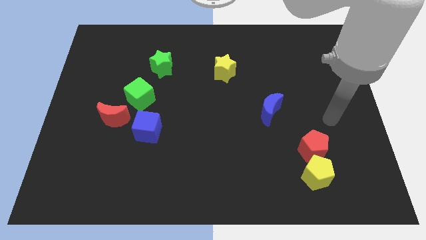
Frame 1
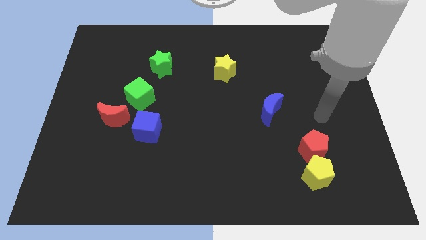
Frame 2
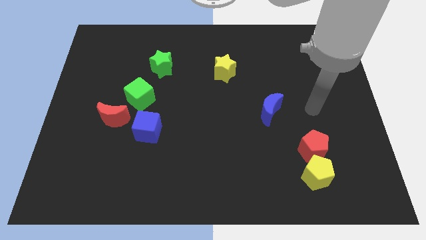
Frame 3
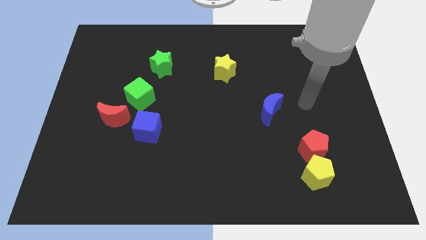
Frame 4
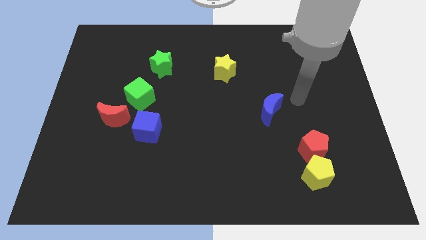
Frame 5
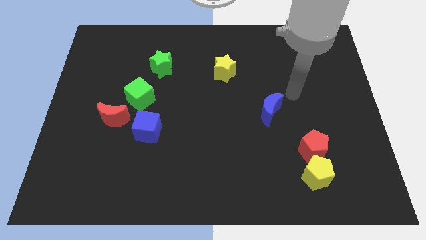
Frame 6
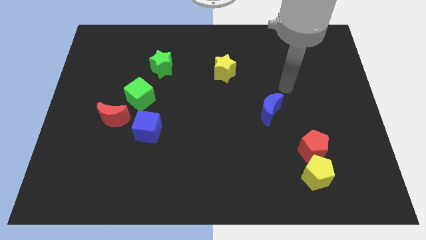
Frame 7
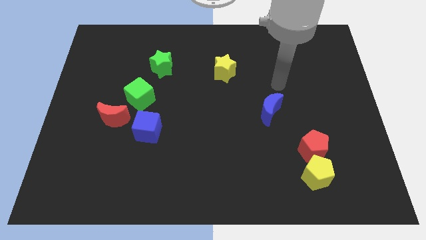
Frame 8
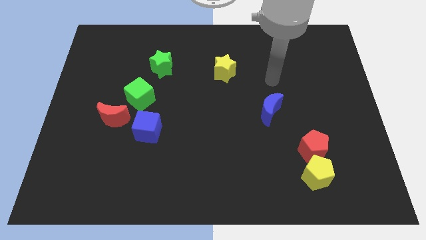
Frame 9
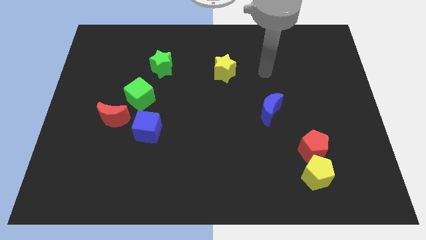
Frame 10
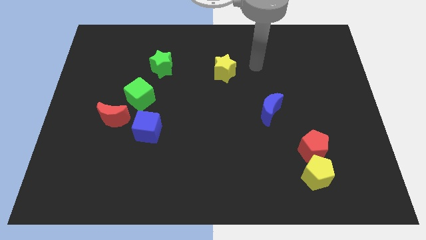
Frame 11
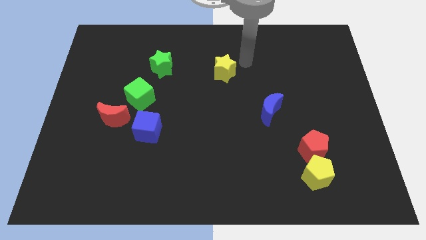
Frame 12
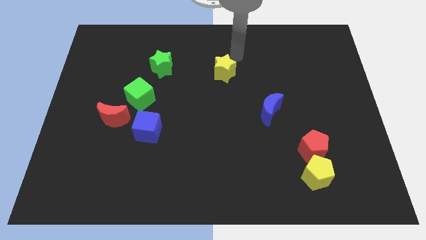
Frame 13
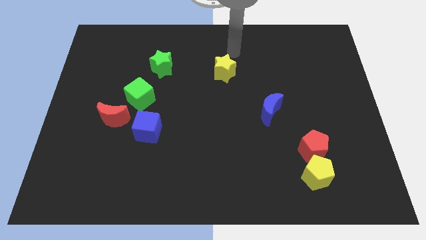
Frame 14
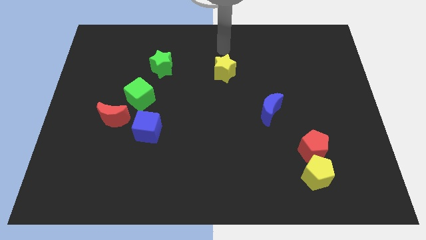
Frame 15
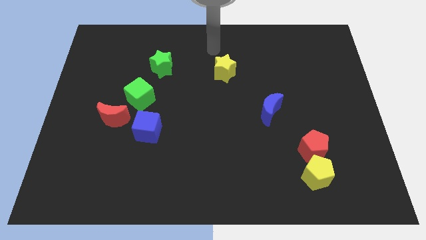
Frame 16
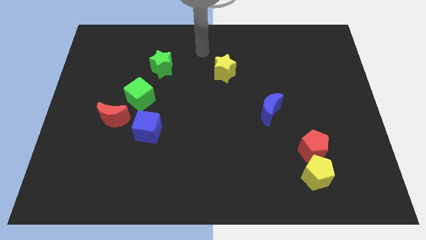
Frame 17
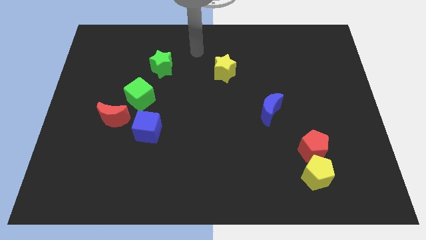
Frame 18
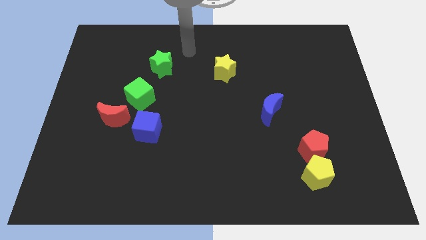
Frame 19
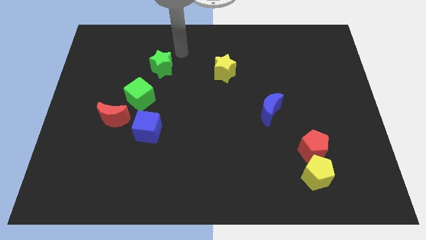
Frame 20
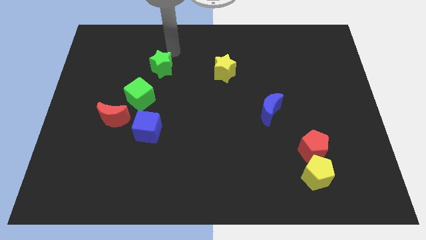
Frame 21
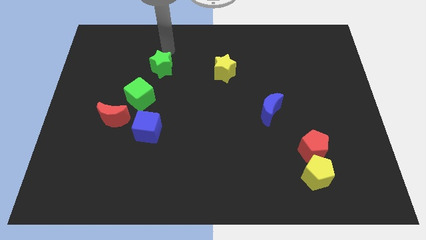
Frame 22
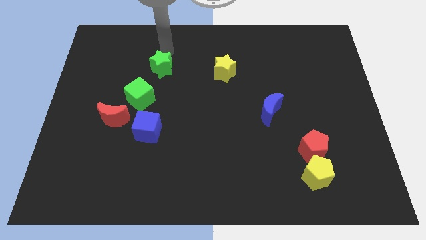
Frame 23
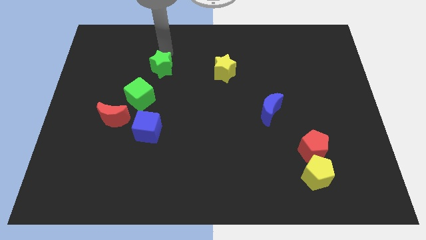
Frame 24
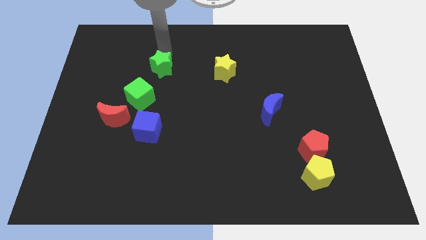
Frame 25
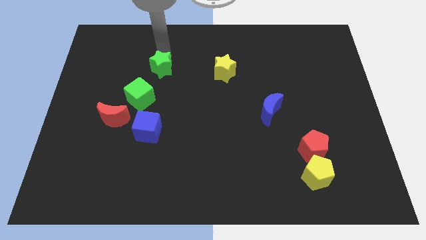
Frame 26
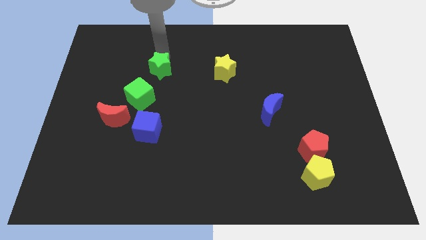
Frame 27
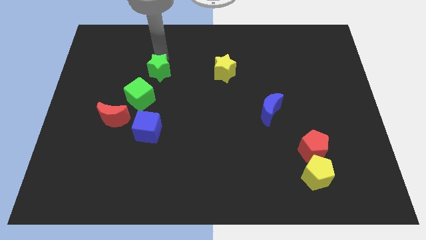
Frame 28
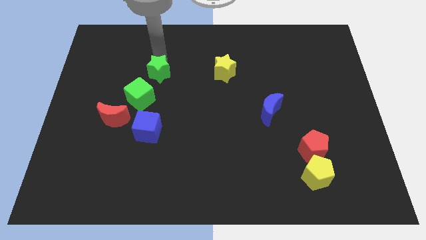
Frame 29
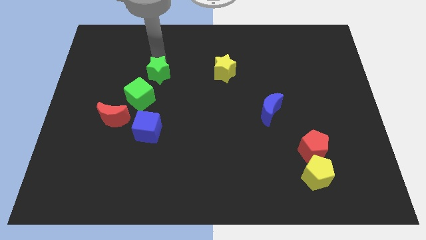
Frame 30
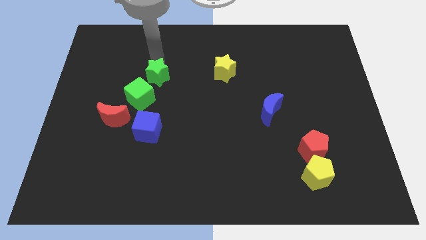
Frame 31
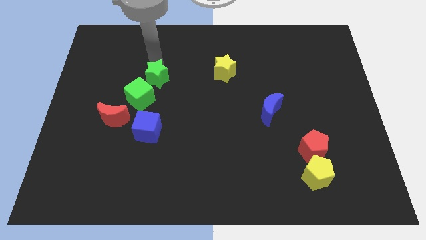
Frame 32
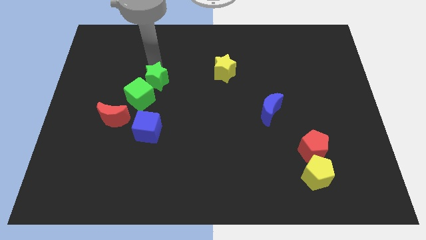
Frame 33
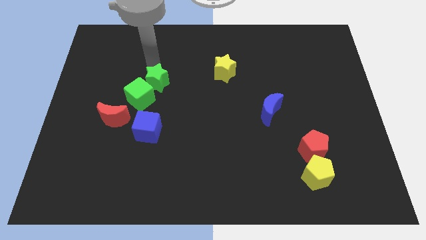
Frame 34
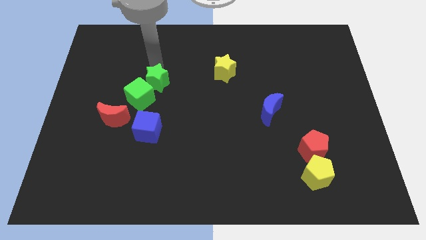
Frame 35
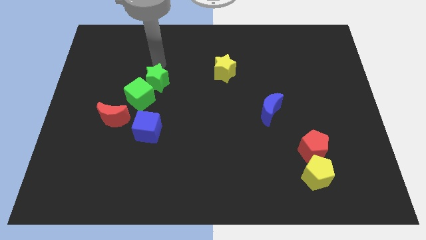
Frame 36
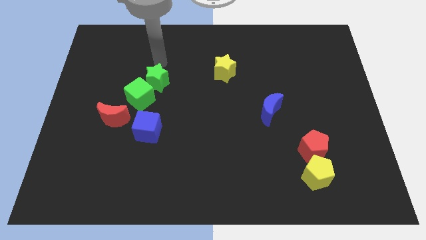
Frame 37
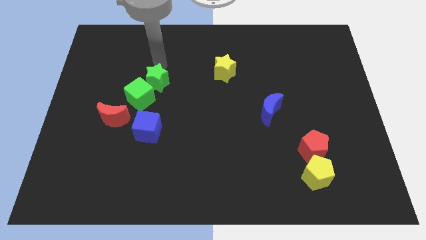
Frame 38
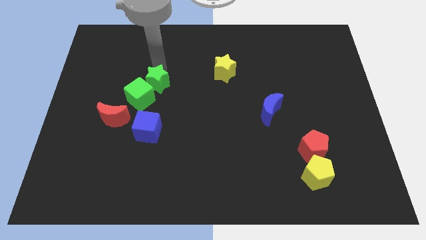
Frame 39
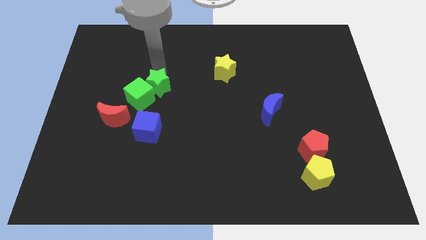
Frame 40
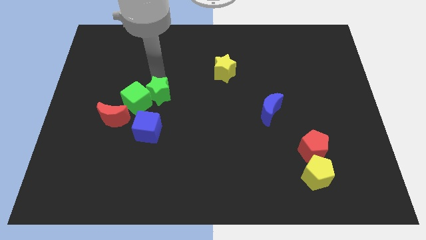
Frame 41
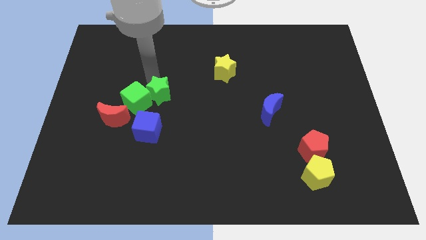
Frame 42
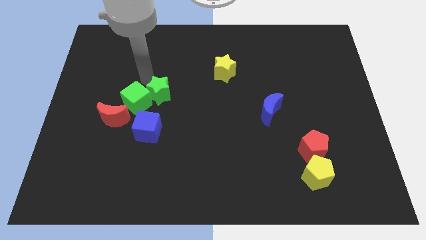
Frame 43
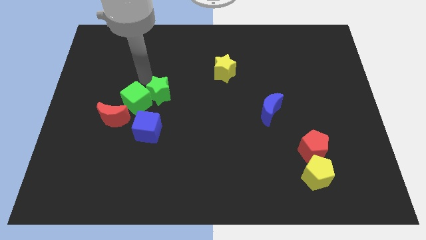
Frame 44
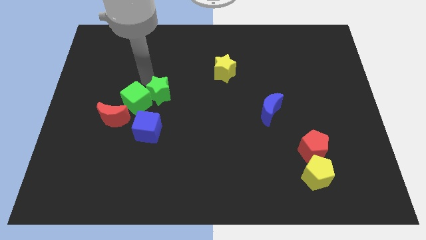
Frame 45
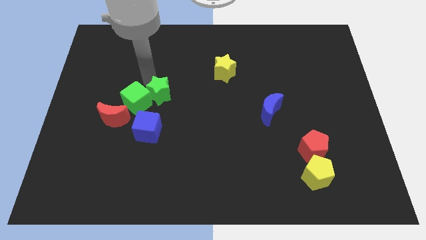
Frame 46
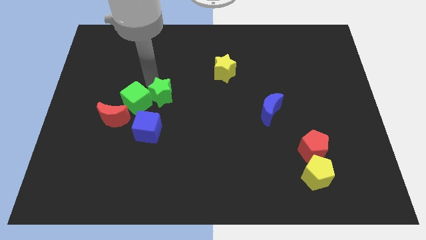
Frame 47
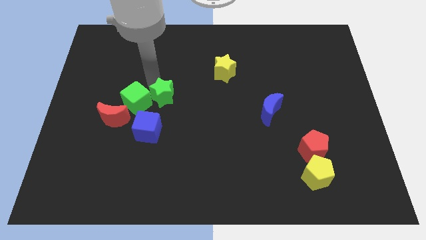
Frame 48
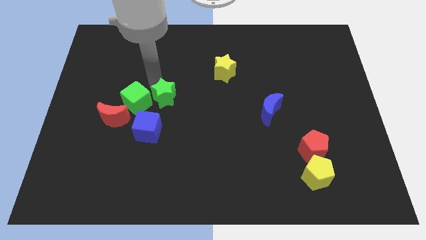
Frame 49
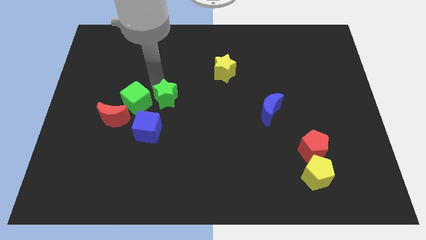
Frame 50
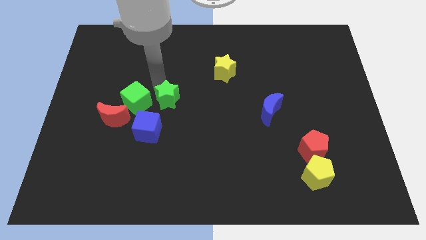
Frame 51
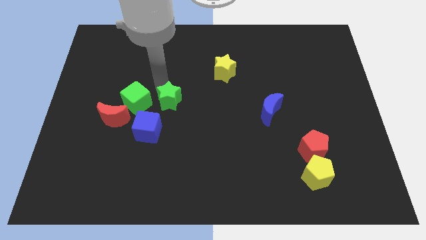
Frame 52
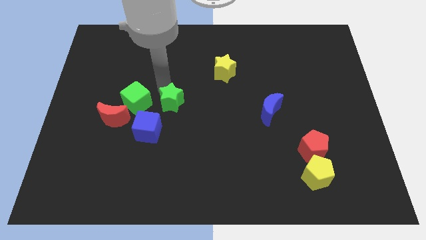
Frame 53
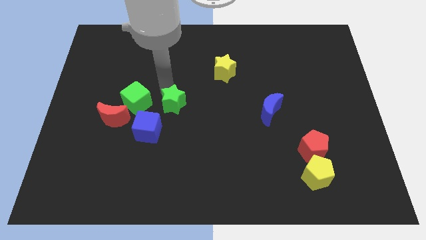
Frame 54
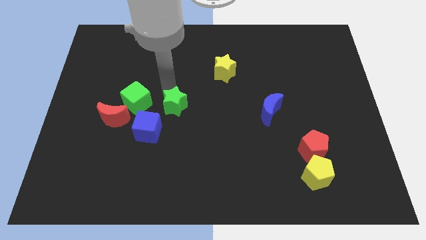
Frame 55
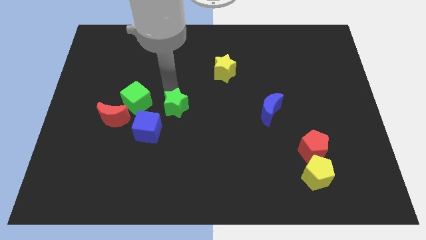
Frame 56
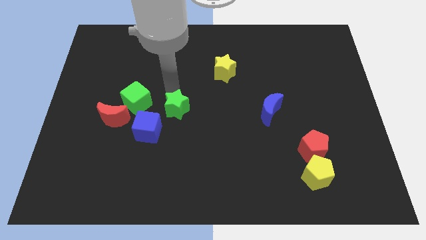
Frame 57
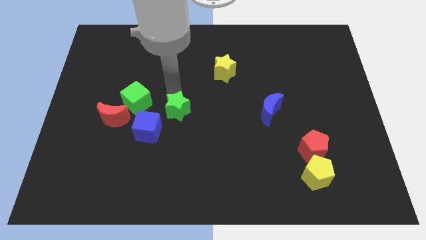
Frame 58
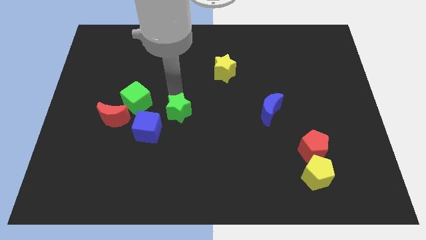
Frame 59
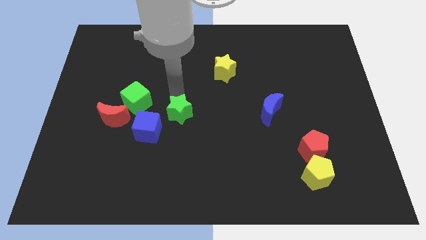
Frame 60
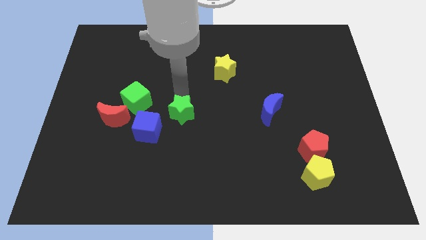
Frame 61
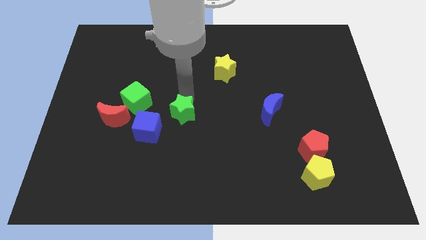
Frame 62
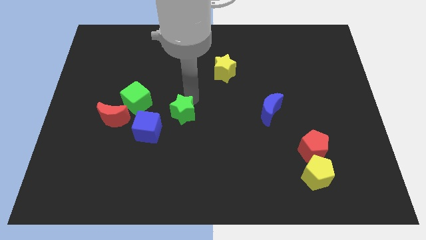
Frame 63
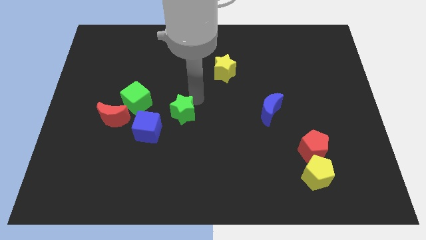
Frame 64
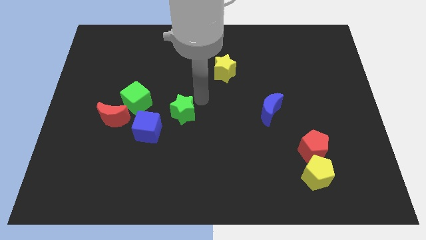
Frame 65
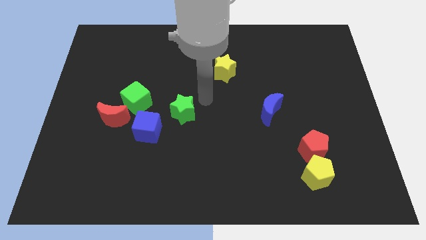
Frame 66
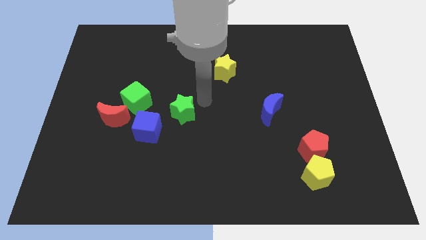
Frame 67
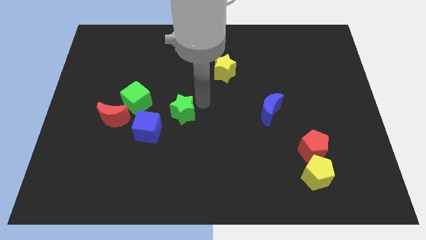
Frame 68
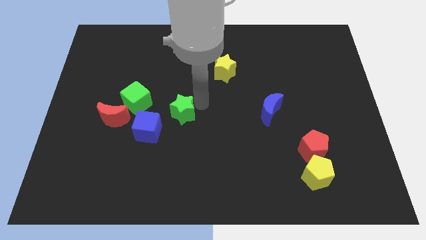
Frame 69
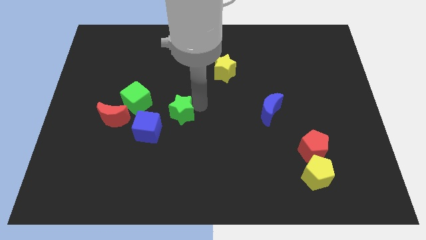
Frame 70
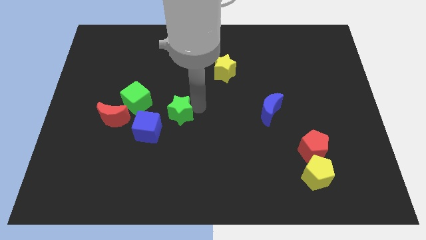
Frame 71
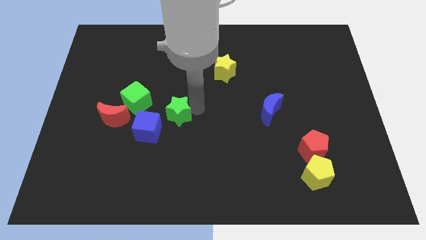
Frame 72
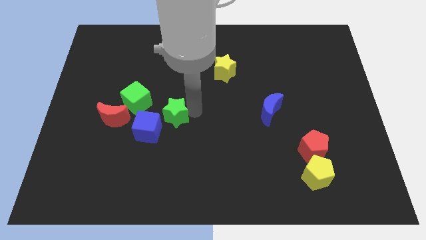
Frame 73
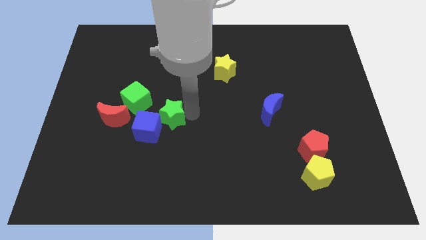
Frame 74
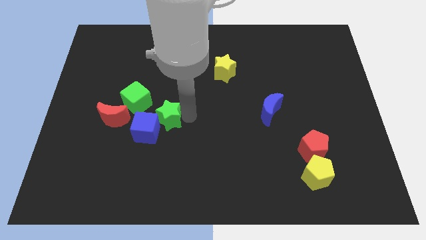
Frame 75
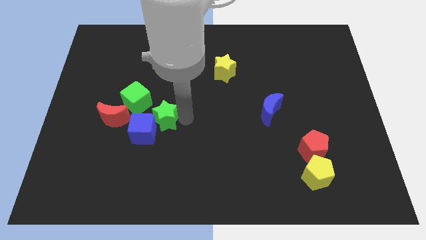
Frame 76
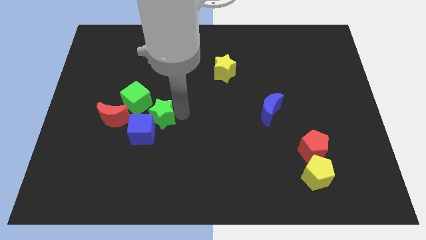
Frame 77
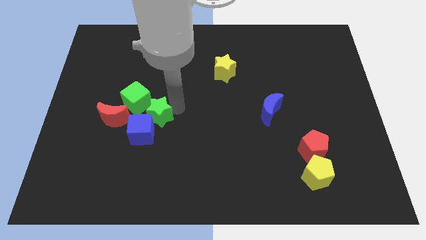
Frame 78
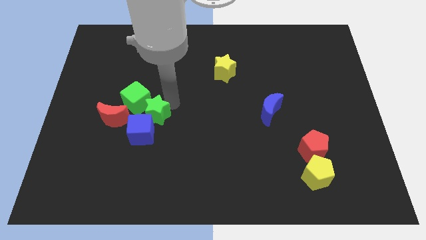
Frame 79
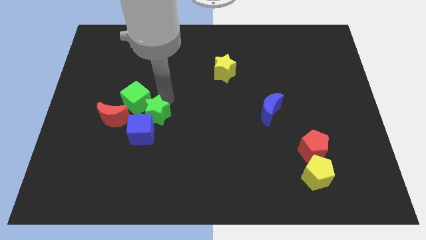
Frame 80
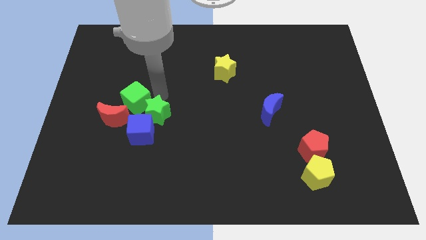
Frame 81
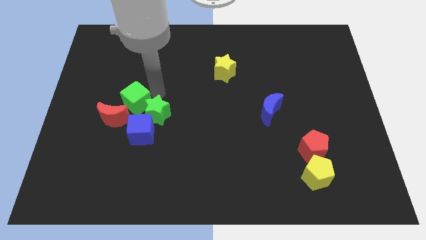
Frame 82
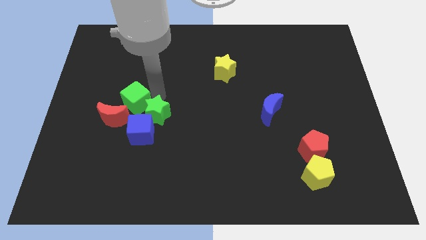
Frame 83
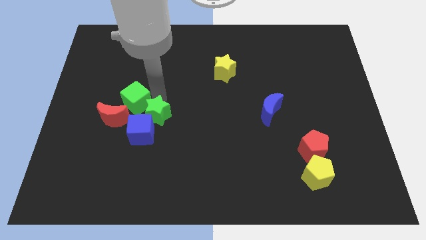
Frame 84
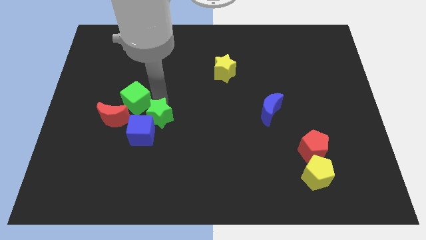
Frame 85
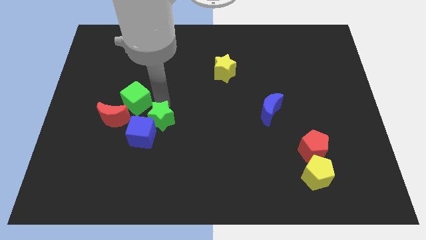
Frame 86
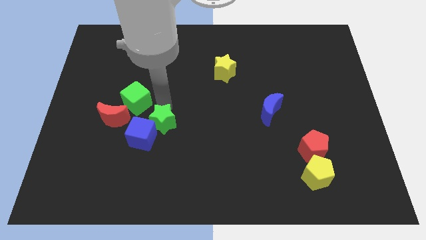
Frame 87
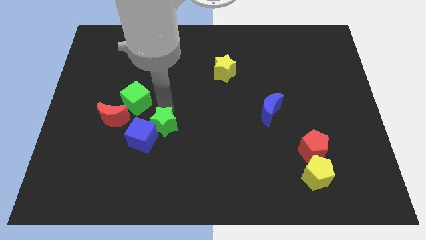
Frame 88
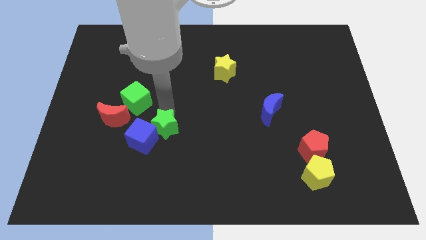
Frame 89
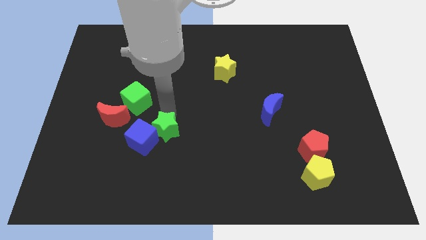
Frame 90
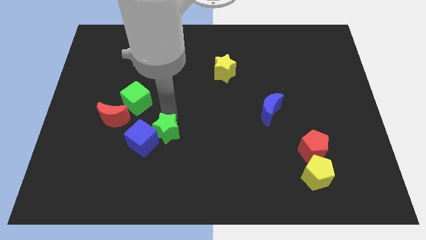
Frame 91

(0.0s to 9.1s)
slide the green star downwards
